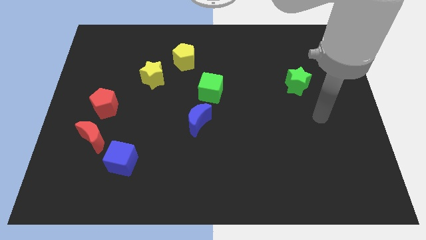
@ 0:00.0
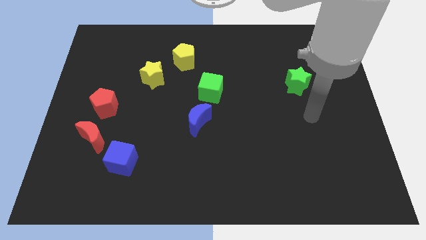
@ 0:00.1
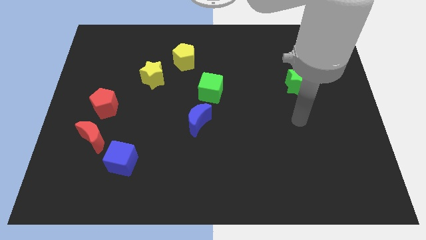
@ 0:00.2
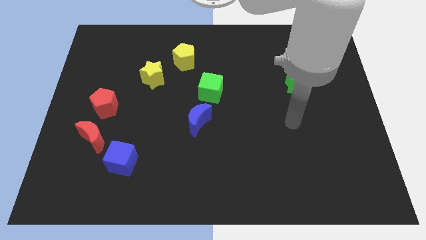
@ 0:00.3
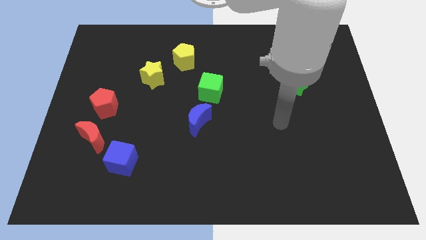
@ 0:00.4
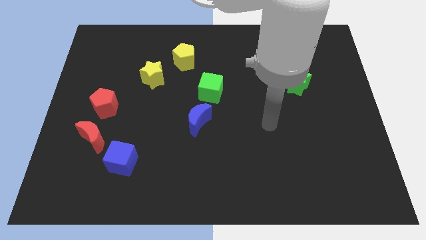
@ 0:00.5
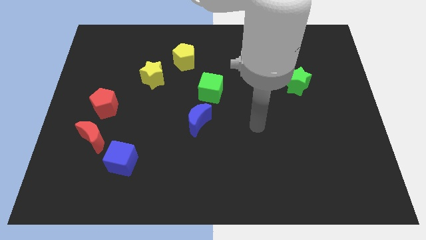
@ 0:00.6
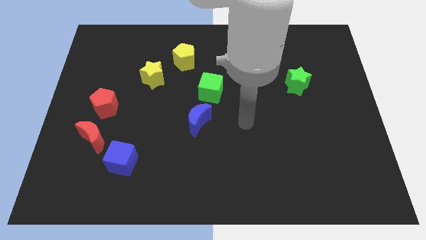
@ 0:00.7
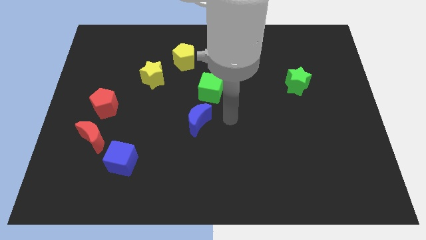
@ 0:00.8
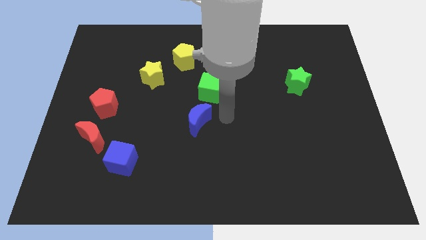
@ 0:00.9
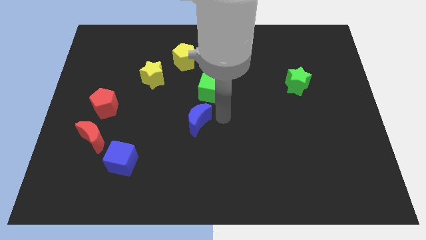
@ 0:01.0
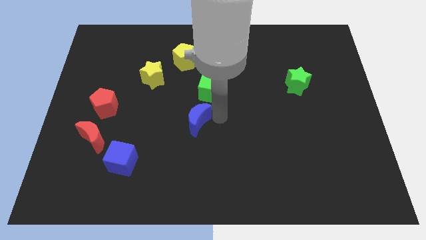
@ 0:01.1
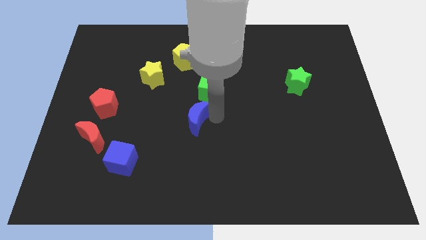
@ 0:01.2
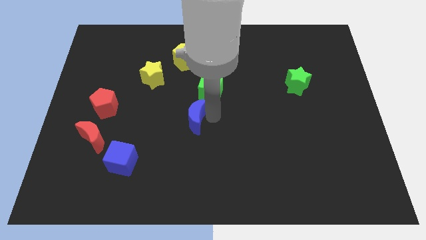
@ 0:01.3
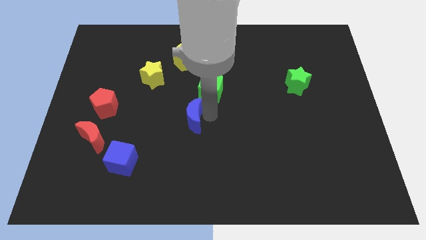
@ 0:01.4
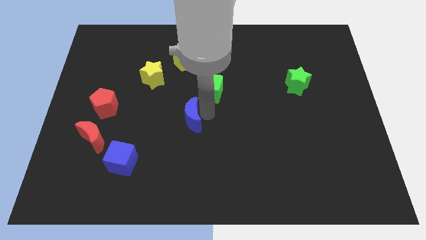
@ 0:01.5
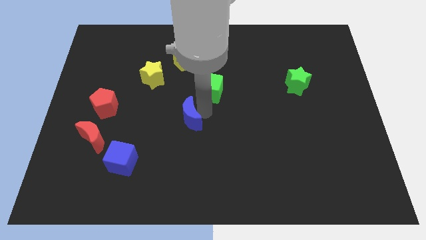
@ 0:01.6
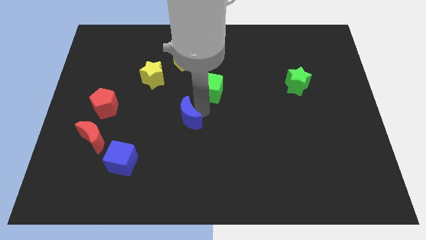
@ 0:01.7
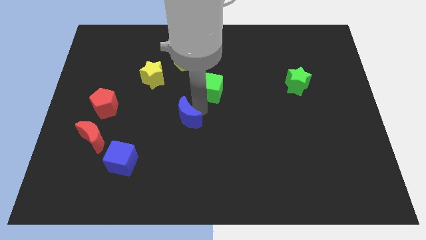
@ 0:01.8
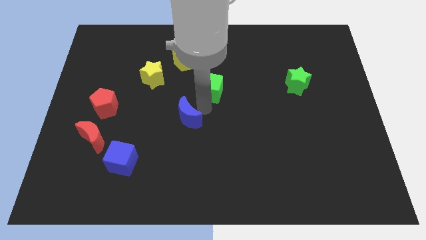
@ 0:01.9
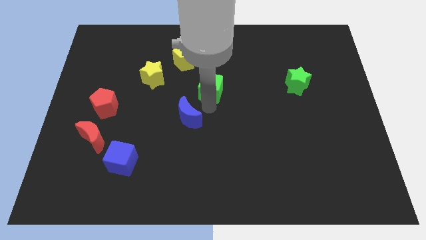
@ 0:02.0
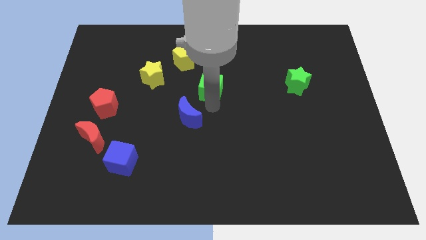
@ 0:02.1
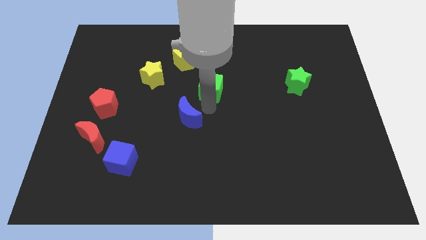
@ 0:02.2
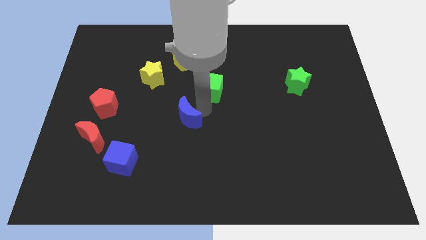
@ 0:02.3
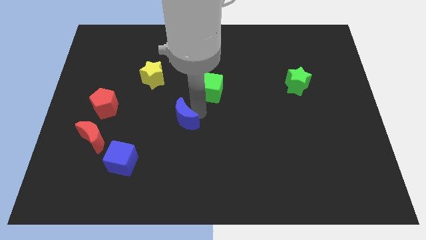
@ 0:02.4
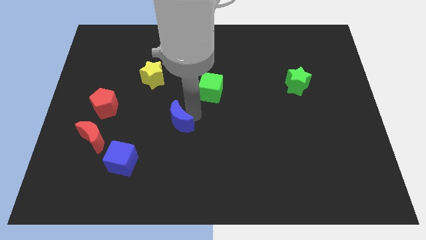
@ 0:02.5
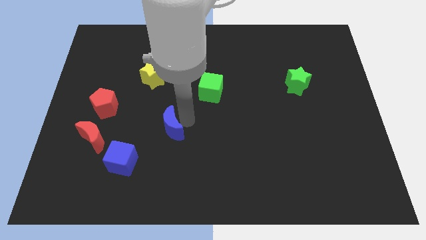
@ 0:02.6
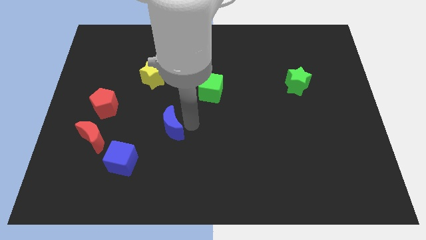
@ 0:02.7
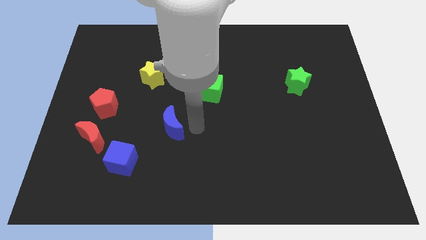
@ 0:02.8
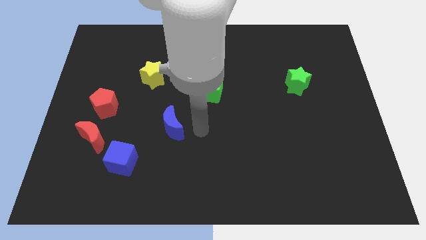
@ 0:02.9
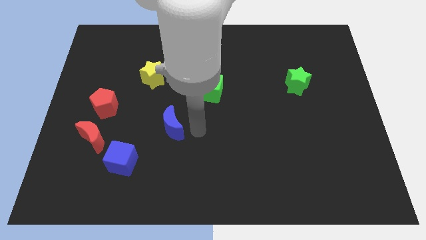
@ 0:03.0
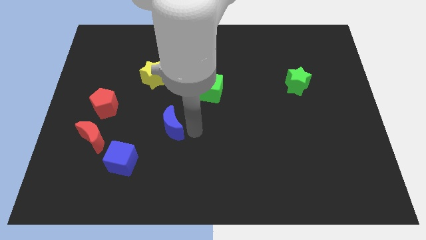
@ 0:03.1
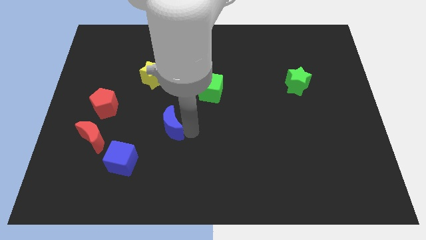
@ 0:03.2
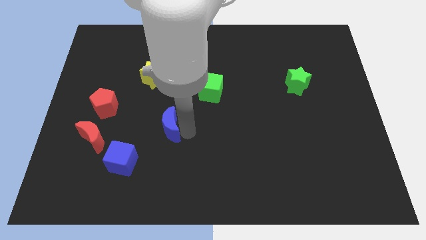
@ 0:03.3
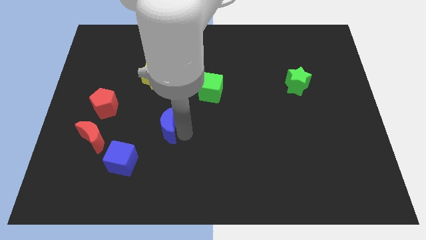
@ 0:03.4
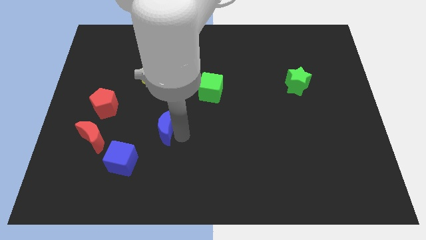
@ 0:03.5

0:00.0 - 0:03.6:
slide the blue moon left slightly

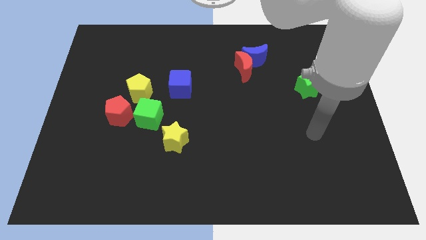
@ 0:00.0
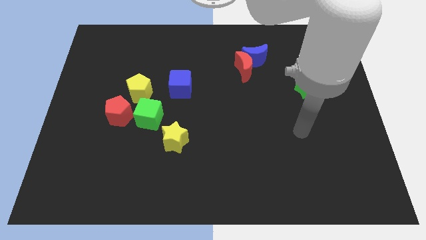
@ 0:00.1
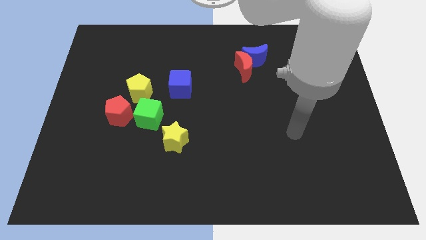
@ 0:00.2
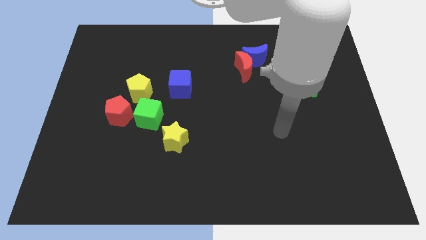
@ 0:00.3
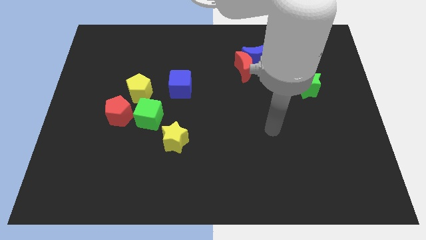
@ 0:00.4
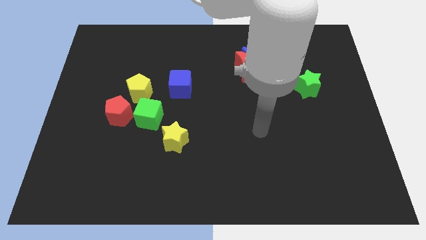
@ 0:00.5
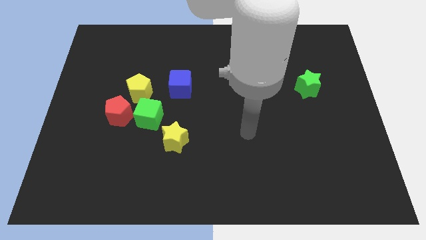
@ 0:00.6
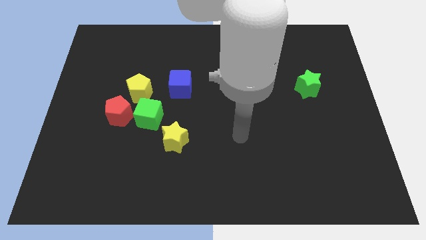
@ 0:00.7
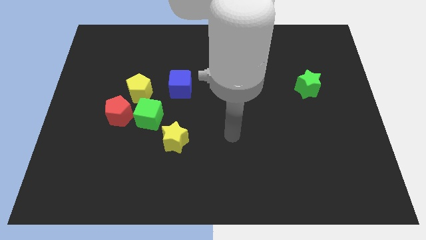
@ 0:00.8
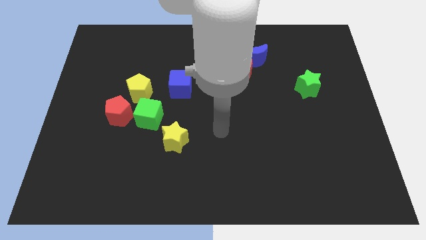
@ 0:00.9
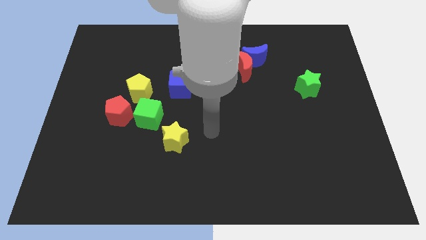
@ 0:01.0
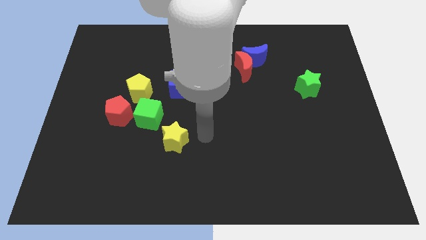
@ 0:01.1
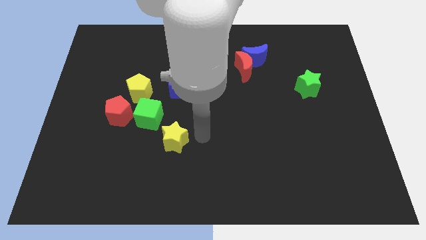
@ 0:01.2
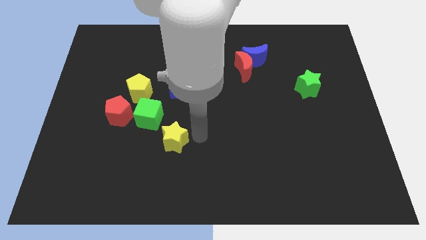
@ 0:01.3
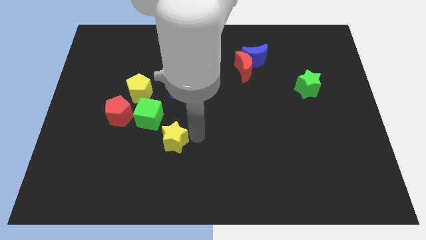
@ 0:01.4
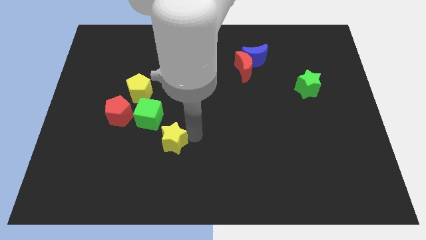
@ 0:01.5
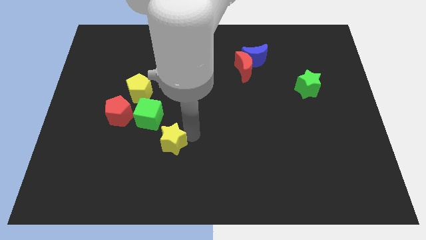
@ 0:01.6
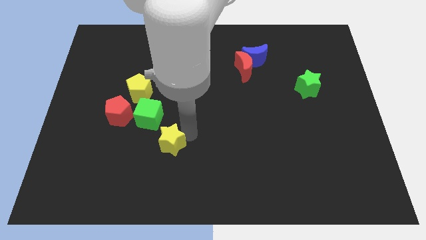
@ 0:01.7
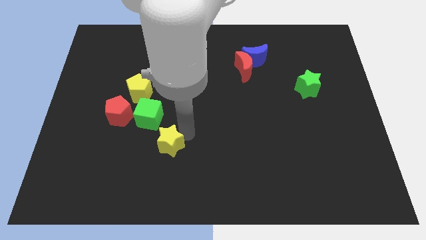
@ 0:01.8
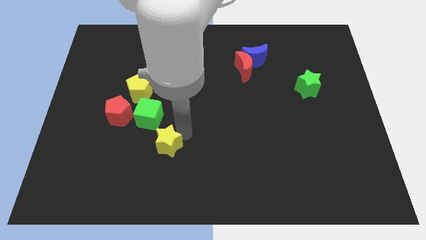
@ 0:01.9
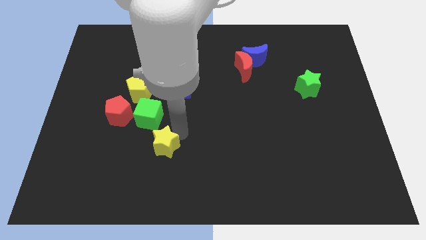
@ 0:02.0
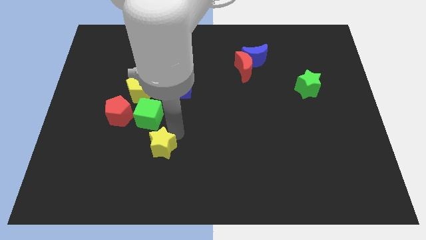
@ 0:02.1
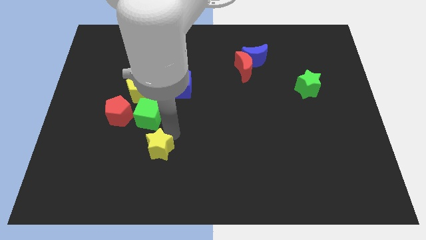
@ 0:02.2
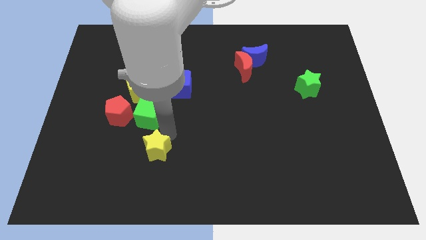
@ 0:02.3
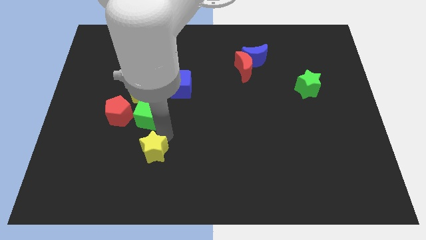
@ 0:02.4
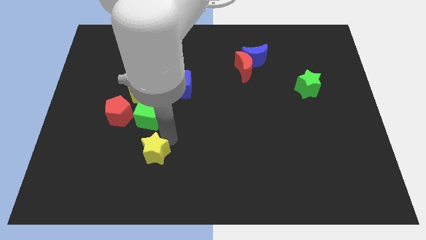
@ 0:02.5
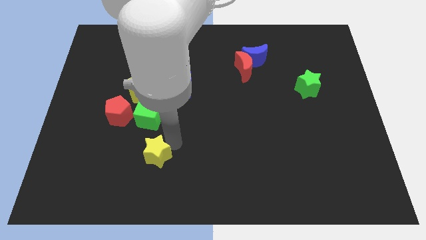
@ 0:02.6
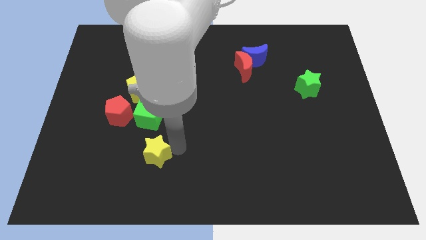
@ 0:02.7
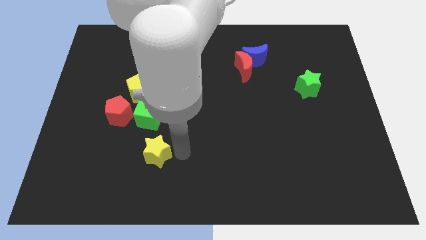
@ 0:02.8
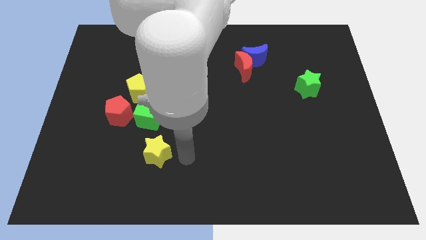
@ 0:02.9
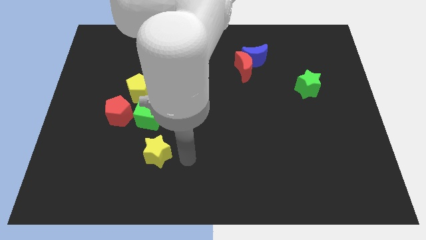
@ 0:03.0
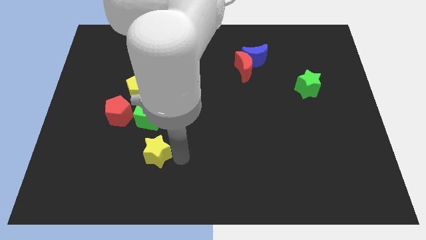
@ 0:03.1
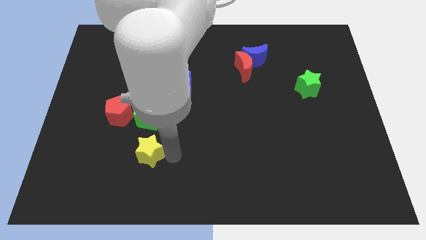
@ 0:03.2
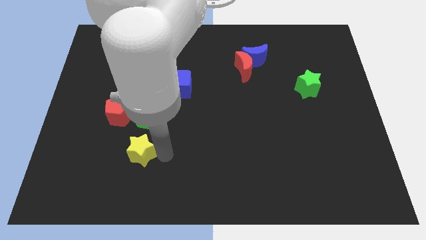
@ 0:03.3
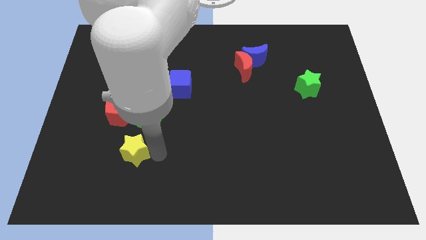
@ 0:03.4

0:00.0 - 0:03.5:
push the yellow star to the left a little

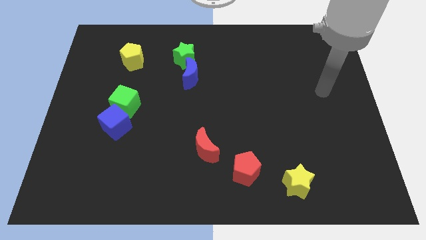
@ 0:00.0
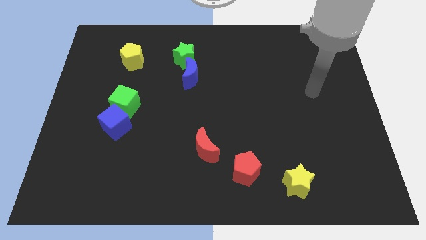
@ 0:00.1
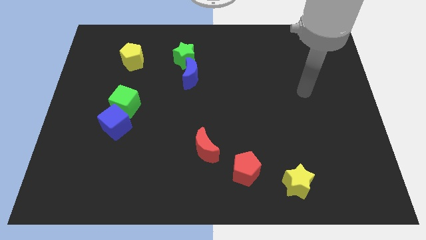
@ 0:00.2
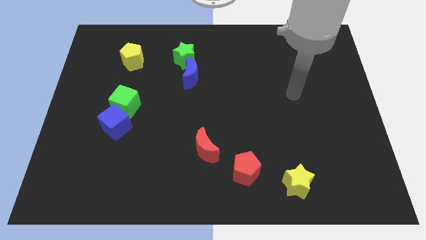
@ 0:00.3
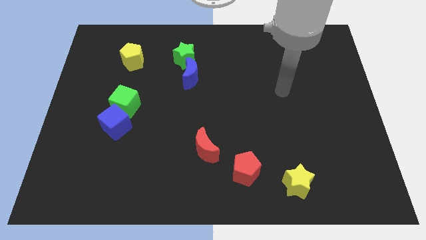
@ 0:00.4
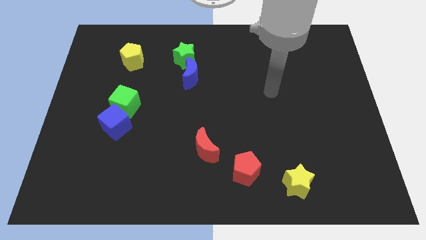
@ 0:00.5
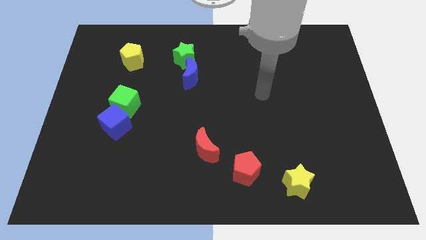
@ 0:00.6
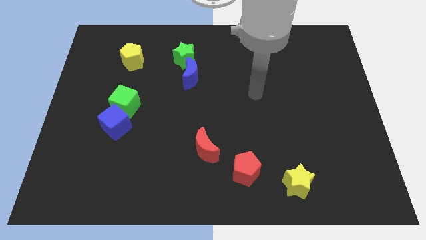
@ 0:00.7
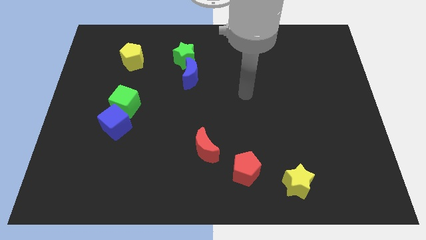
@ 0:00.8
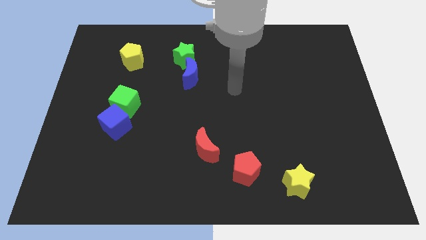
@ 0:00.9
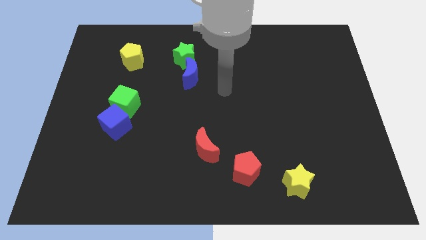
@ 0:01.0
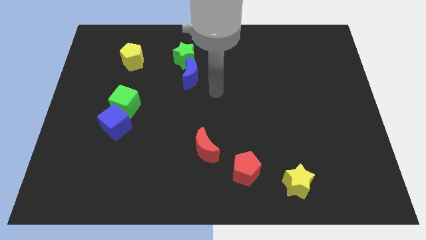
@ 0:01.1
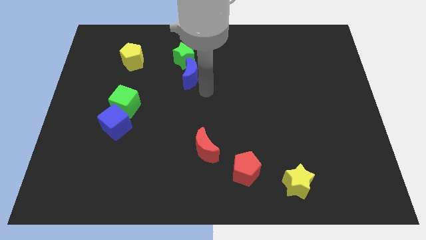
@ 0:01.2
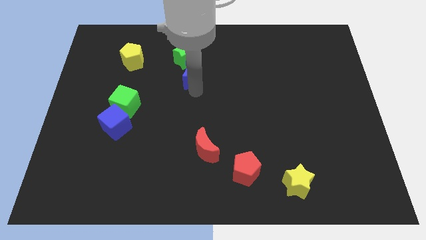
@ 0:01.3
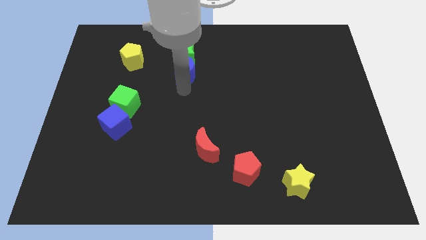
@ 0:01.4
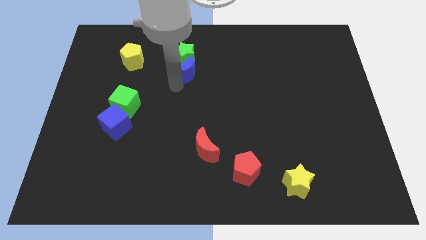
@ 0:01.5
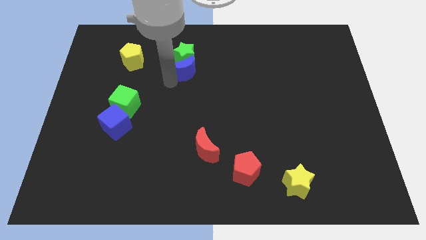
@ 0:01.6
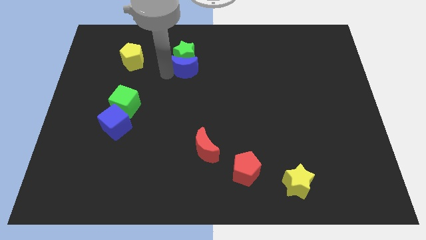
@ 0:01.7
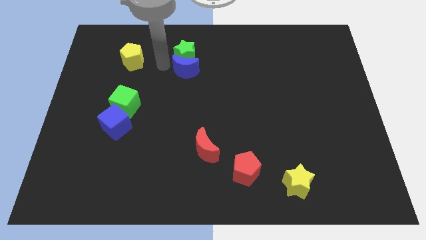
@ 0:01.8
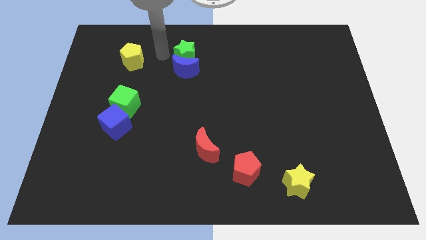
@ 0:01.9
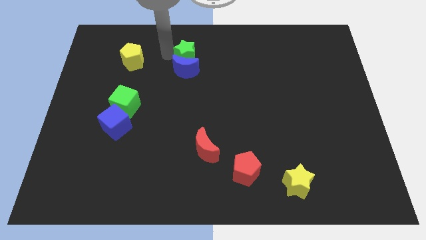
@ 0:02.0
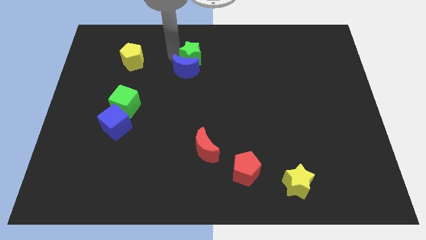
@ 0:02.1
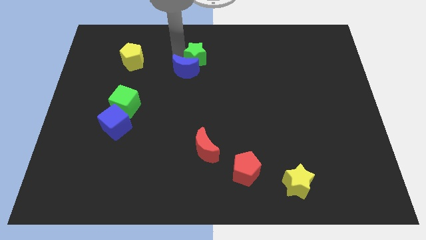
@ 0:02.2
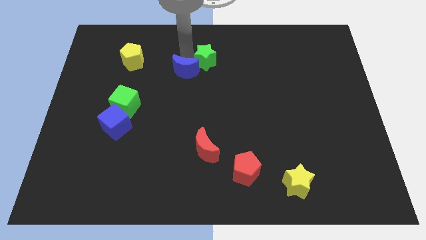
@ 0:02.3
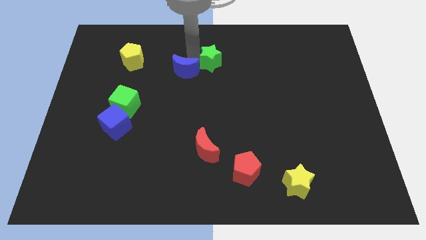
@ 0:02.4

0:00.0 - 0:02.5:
push the green star somewhat right
